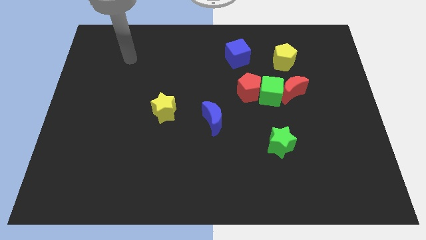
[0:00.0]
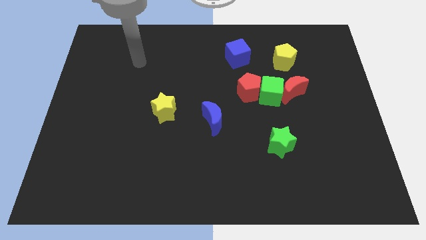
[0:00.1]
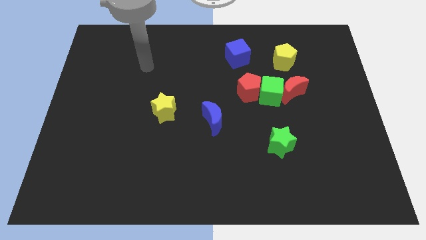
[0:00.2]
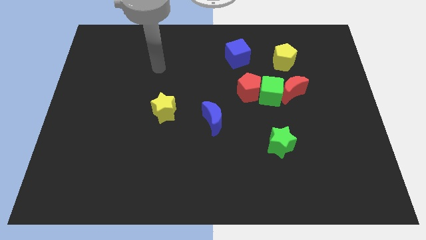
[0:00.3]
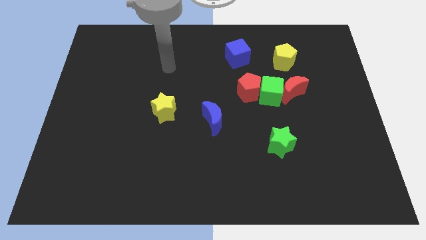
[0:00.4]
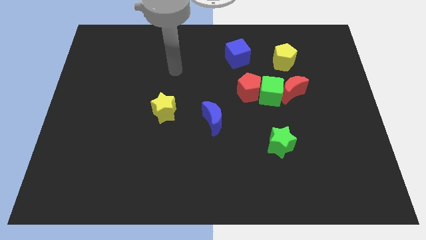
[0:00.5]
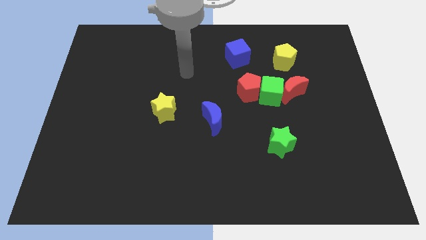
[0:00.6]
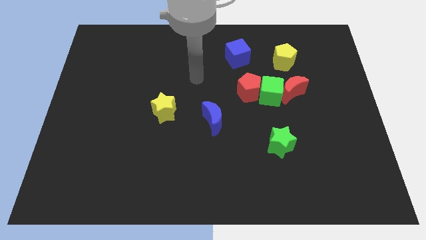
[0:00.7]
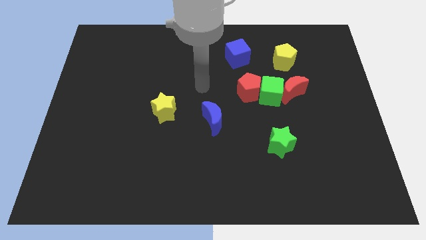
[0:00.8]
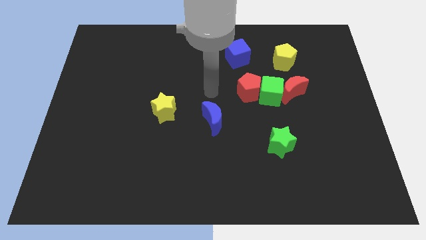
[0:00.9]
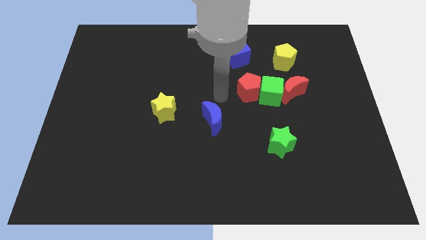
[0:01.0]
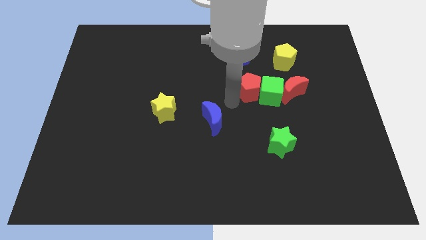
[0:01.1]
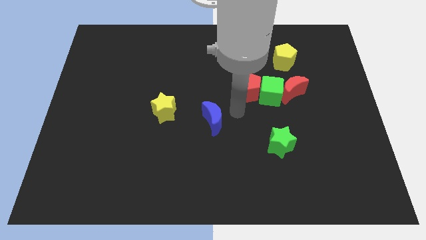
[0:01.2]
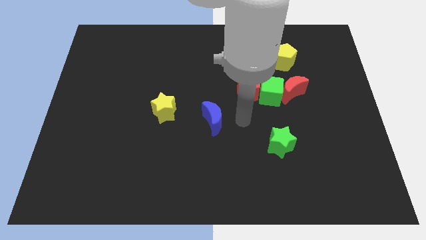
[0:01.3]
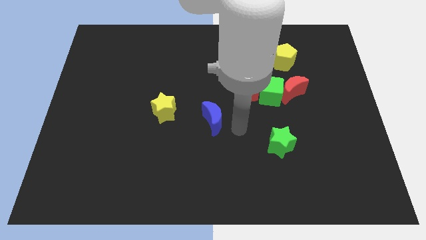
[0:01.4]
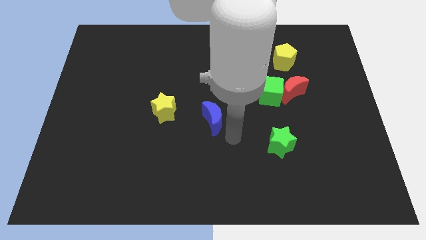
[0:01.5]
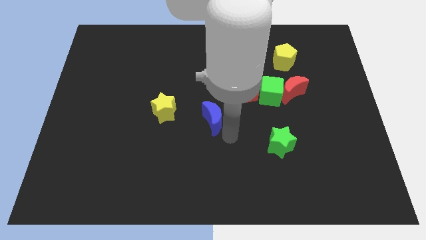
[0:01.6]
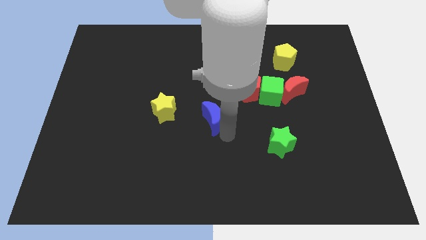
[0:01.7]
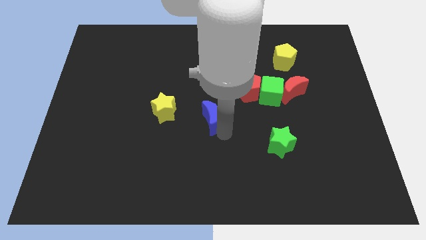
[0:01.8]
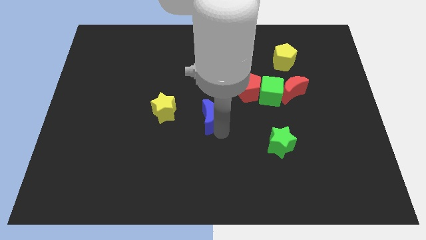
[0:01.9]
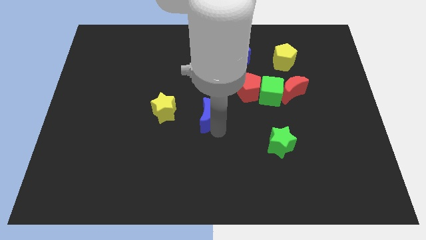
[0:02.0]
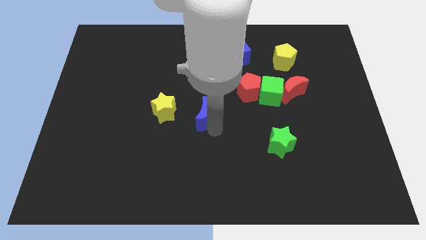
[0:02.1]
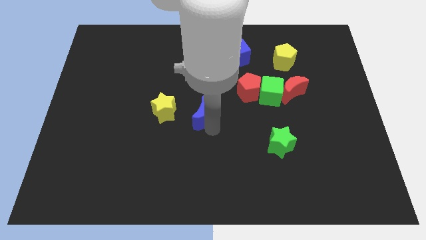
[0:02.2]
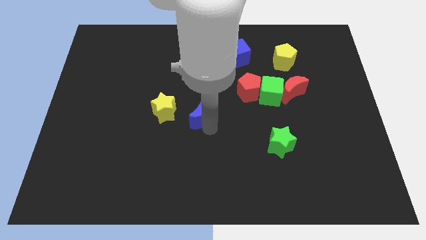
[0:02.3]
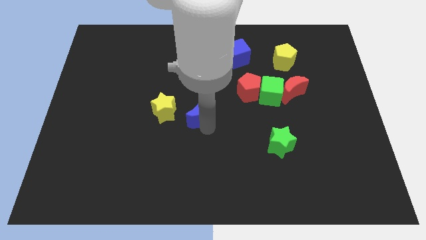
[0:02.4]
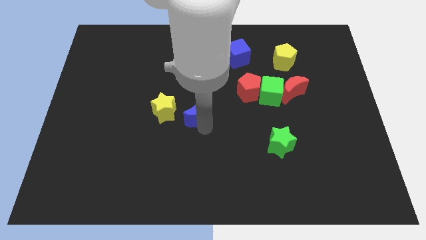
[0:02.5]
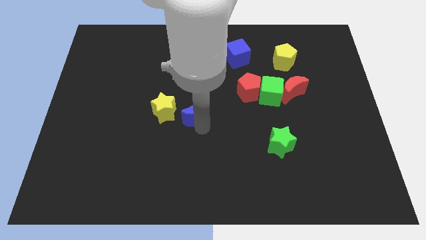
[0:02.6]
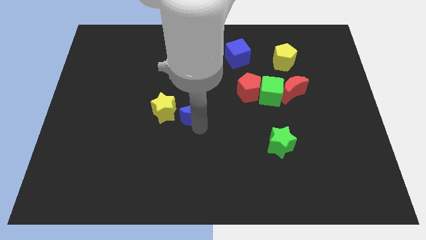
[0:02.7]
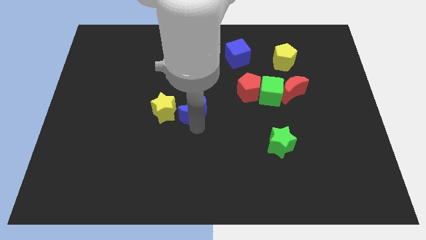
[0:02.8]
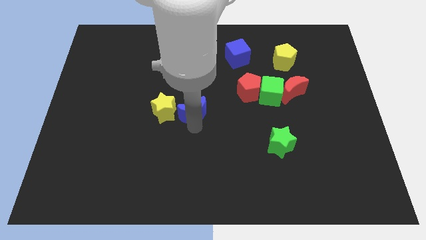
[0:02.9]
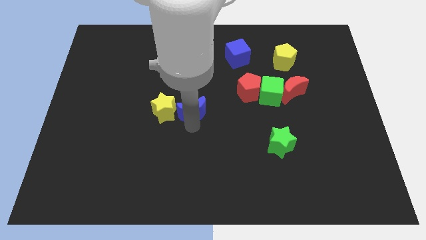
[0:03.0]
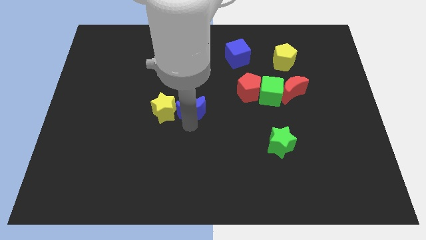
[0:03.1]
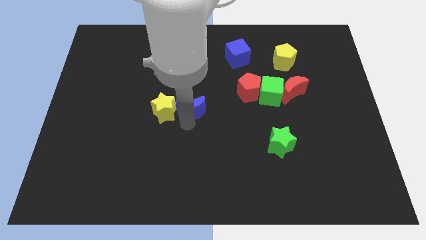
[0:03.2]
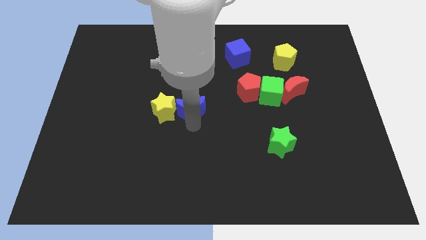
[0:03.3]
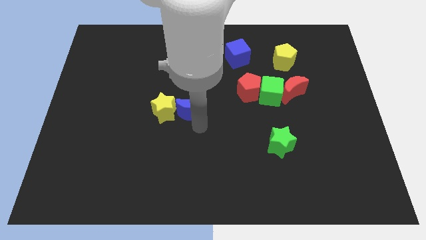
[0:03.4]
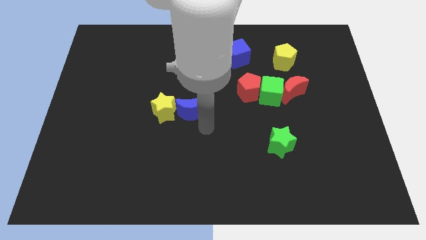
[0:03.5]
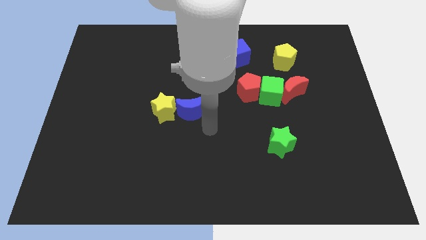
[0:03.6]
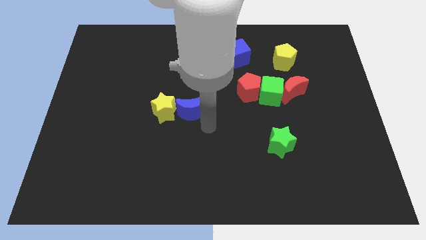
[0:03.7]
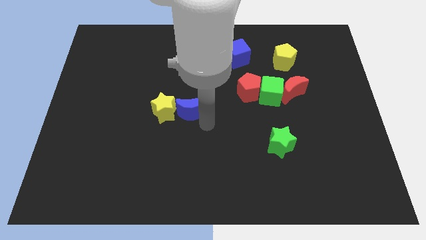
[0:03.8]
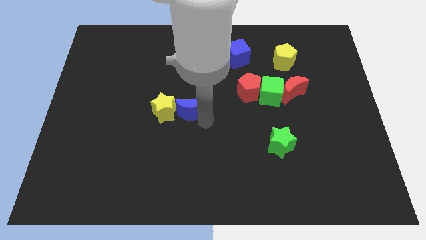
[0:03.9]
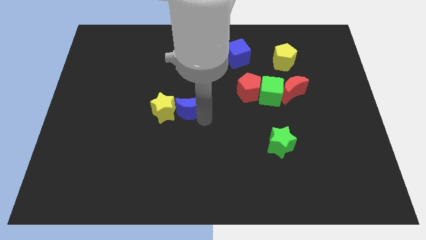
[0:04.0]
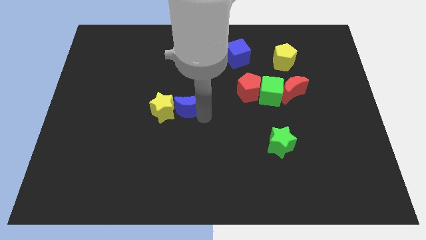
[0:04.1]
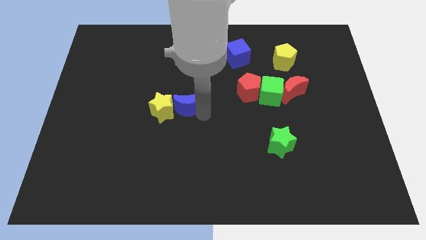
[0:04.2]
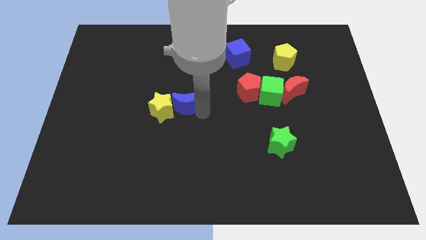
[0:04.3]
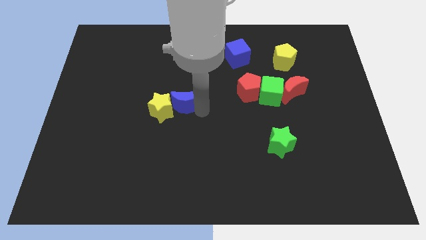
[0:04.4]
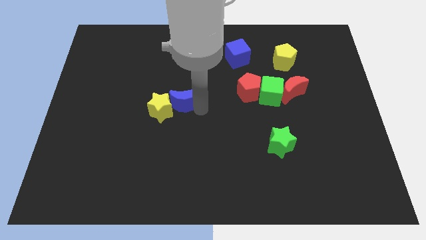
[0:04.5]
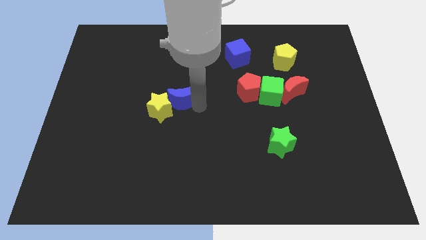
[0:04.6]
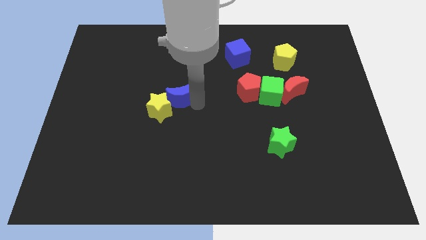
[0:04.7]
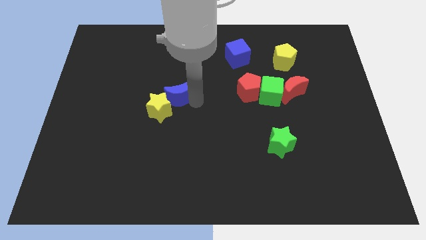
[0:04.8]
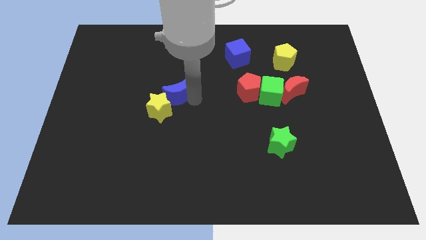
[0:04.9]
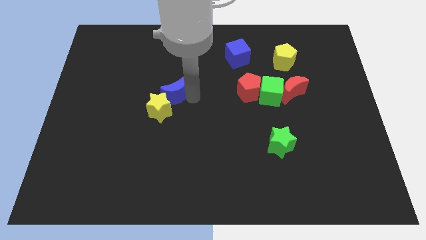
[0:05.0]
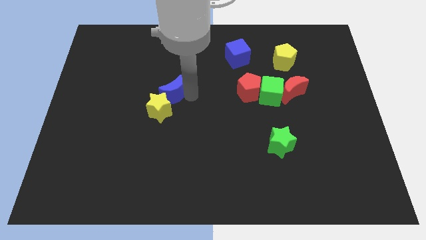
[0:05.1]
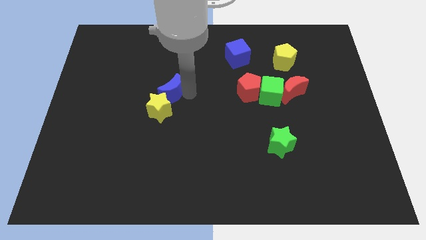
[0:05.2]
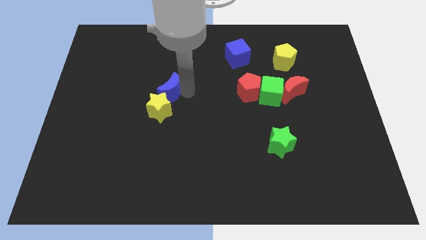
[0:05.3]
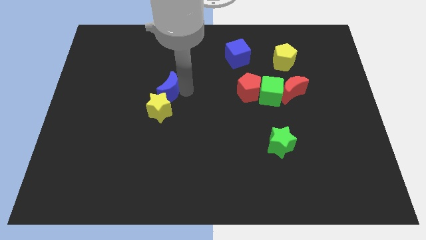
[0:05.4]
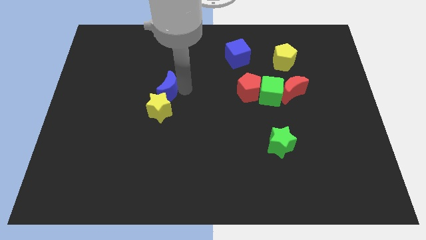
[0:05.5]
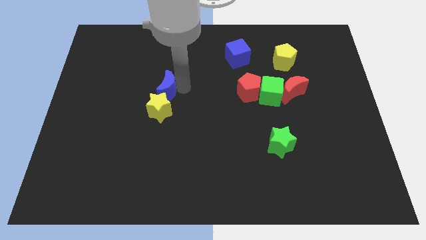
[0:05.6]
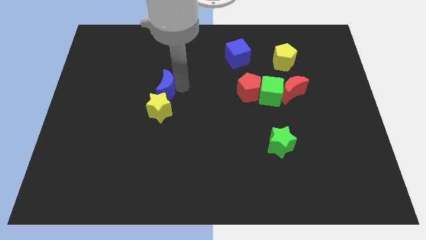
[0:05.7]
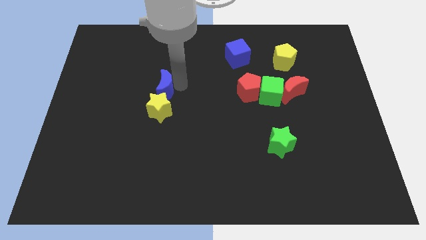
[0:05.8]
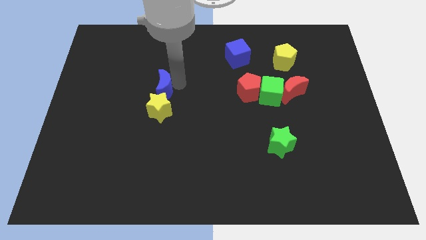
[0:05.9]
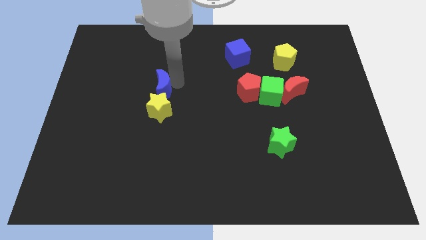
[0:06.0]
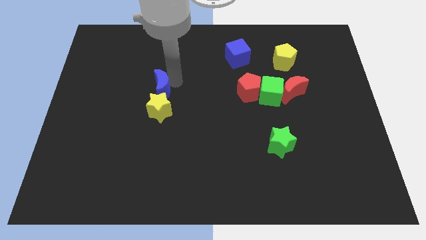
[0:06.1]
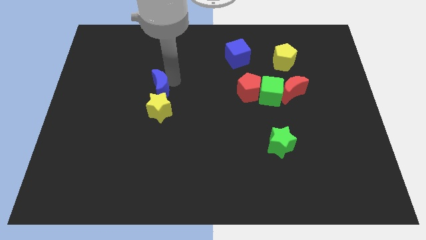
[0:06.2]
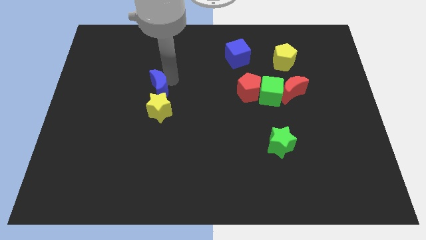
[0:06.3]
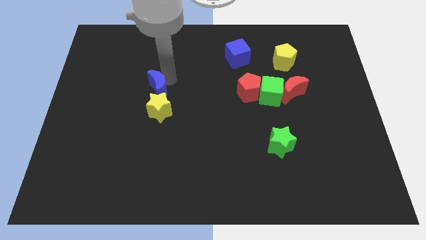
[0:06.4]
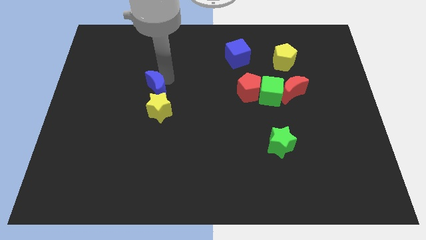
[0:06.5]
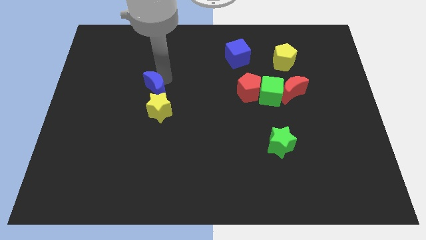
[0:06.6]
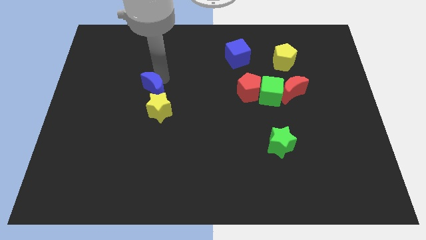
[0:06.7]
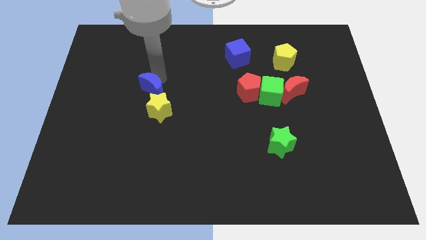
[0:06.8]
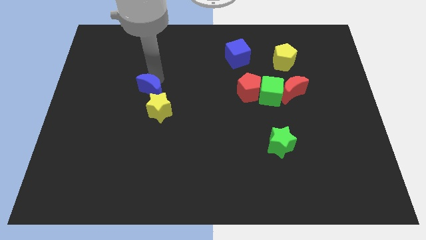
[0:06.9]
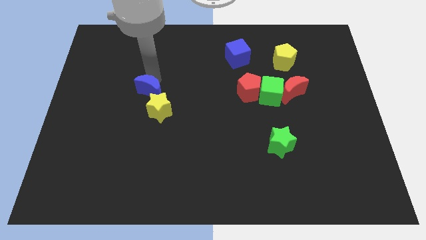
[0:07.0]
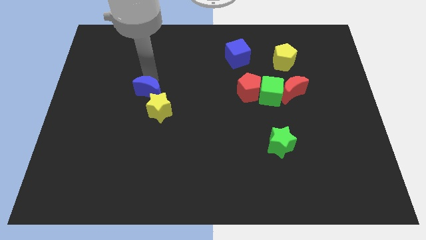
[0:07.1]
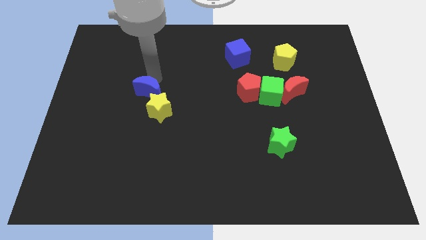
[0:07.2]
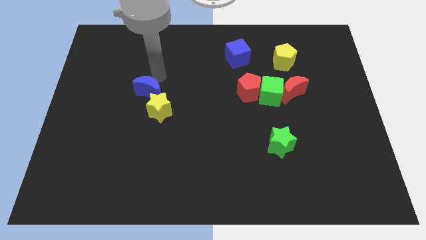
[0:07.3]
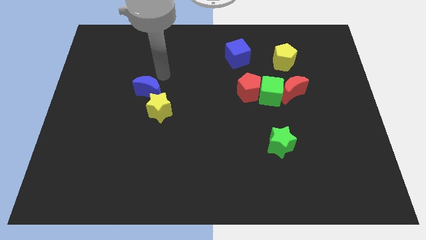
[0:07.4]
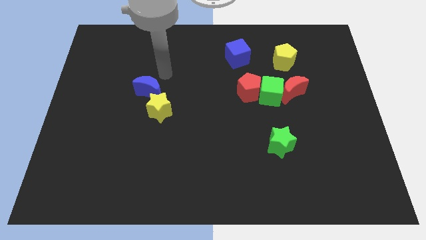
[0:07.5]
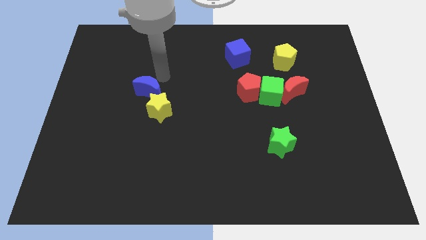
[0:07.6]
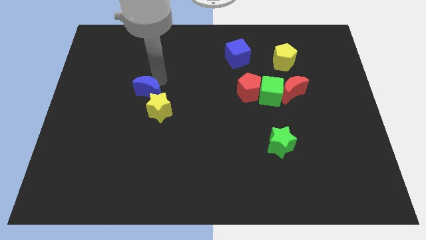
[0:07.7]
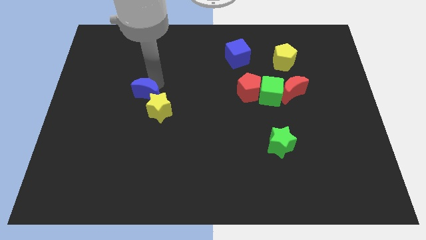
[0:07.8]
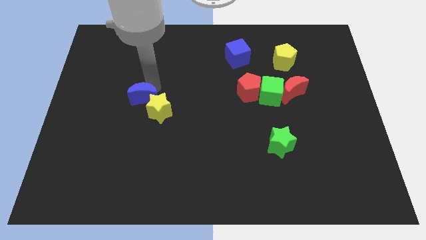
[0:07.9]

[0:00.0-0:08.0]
put the blue moon to the left side of the yellow star
